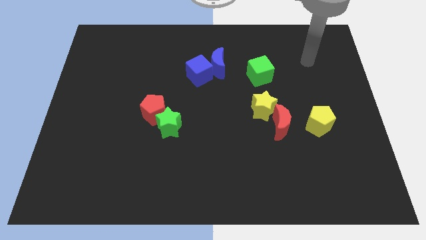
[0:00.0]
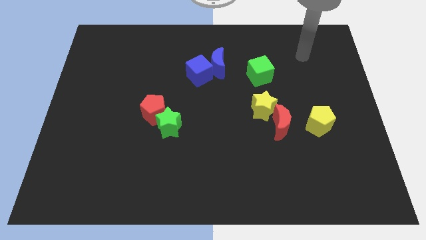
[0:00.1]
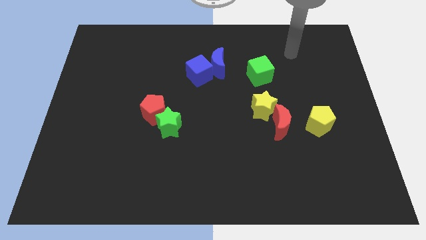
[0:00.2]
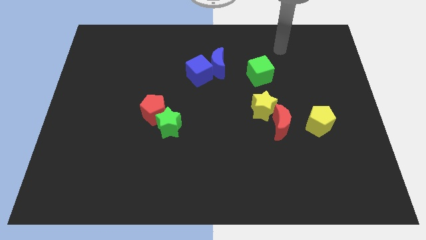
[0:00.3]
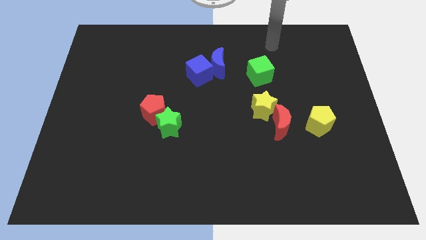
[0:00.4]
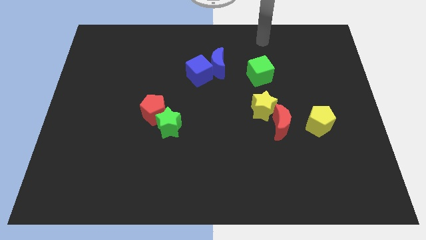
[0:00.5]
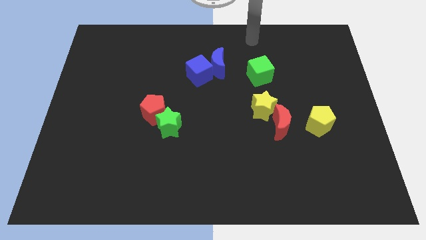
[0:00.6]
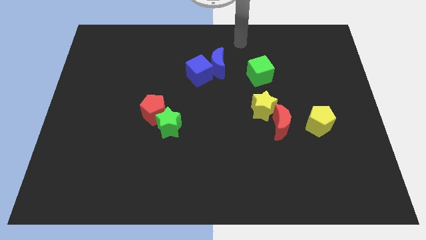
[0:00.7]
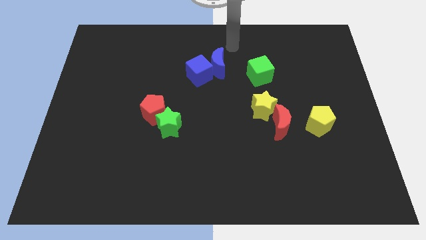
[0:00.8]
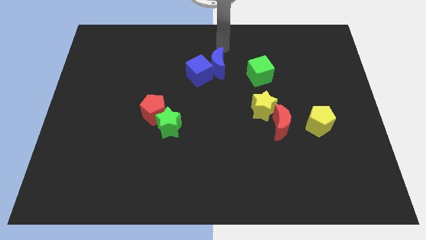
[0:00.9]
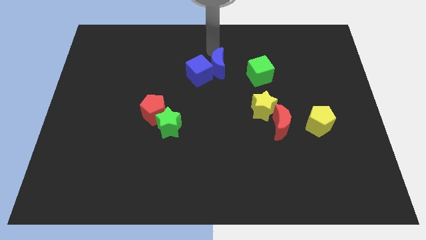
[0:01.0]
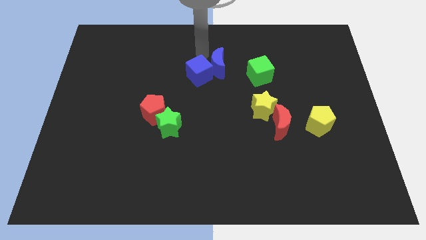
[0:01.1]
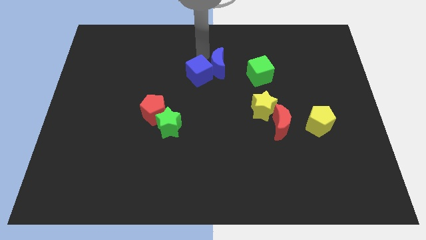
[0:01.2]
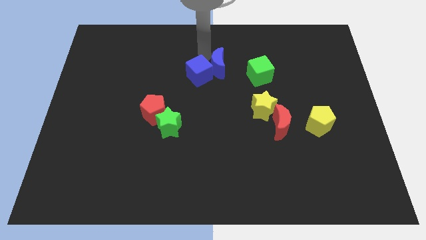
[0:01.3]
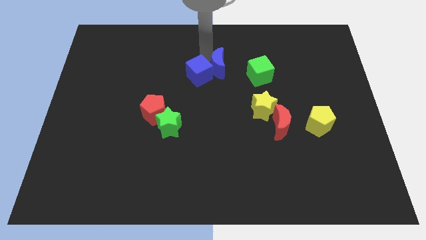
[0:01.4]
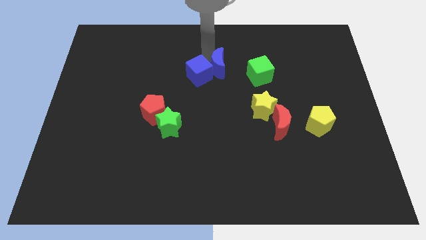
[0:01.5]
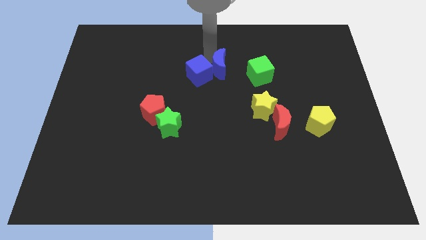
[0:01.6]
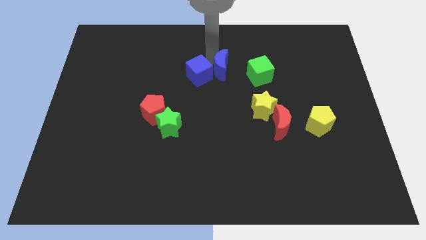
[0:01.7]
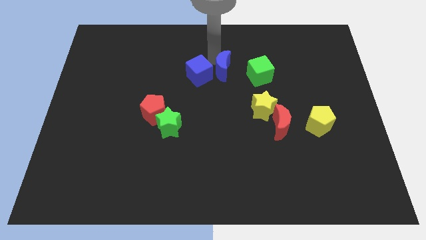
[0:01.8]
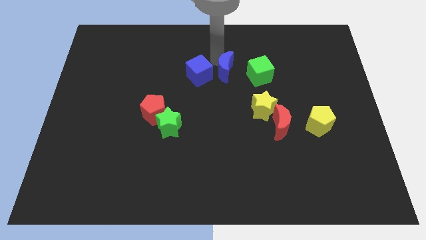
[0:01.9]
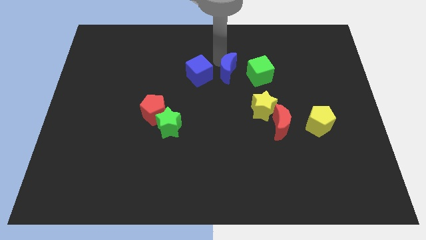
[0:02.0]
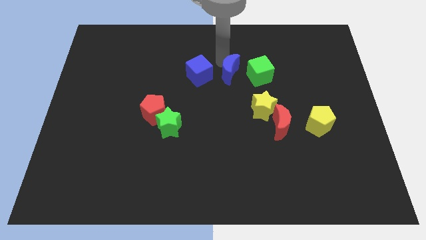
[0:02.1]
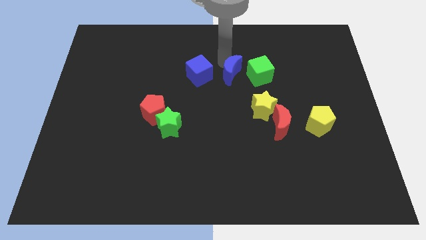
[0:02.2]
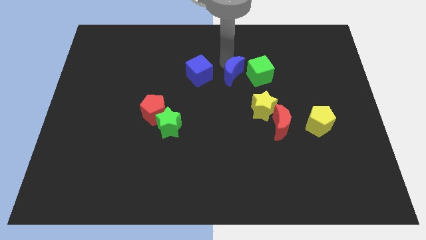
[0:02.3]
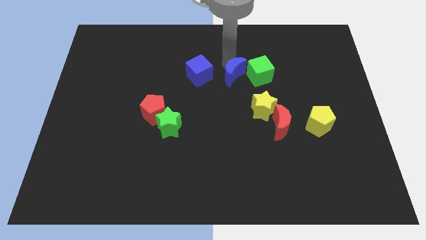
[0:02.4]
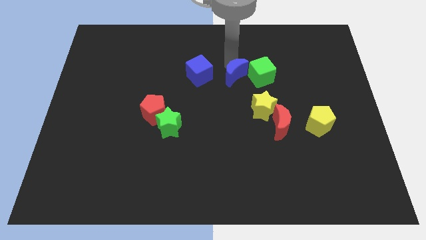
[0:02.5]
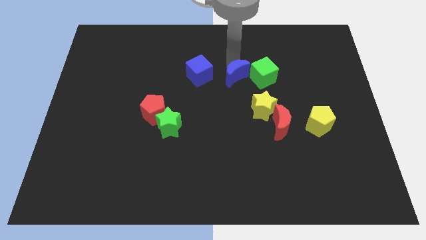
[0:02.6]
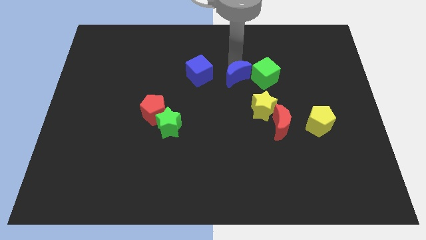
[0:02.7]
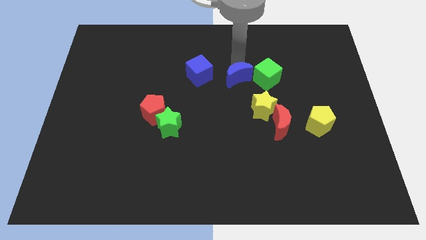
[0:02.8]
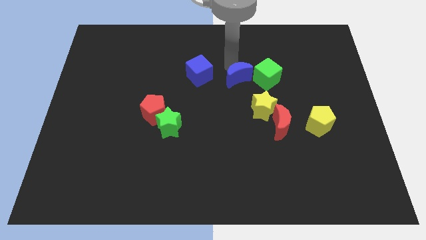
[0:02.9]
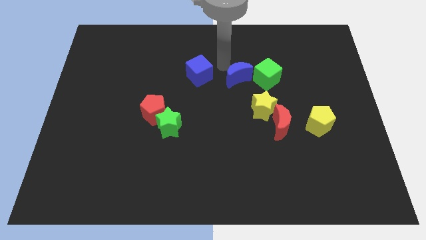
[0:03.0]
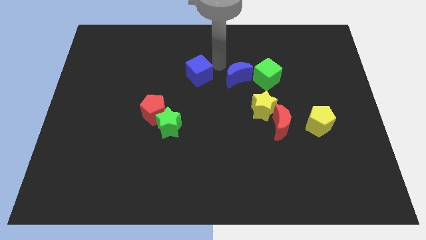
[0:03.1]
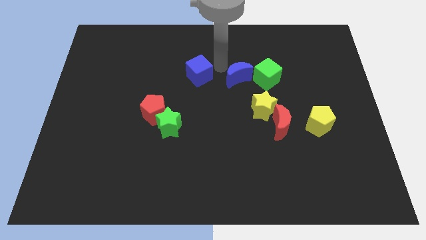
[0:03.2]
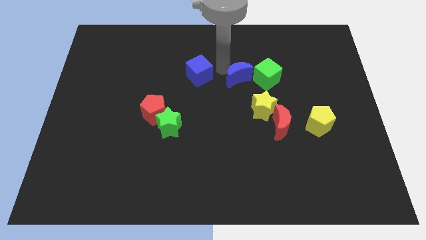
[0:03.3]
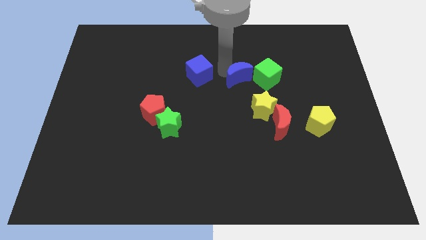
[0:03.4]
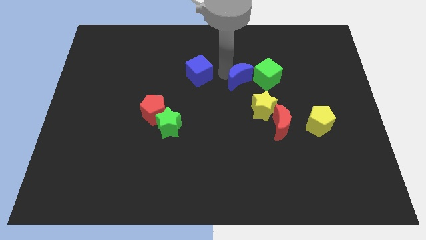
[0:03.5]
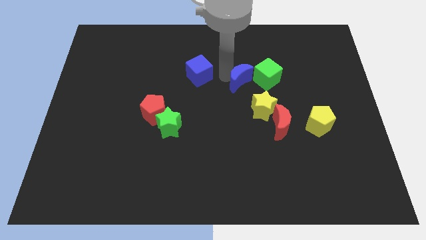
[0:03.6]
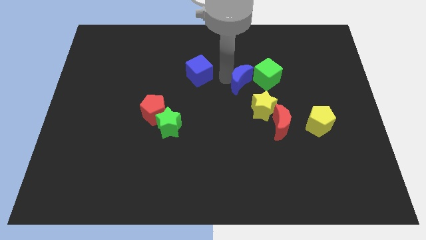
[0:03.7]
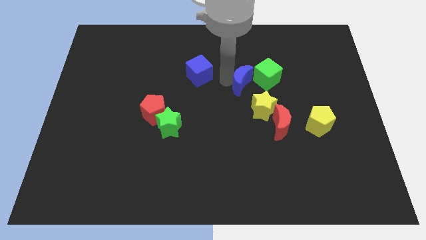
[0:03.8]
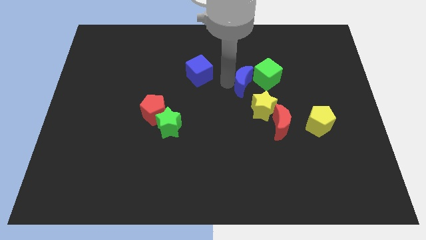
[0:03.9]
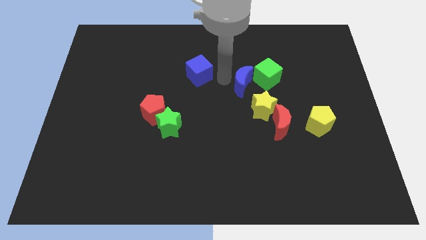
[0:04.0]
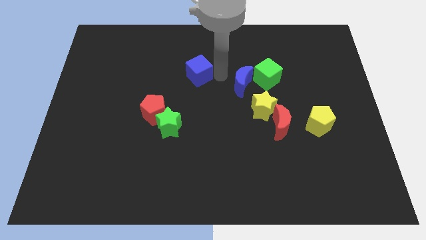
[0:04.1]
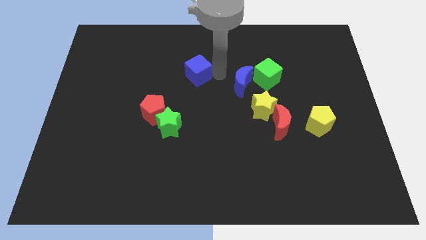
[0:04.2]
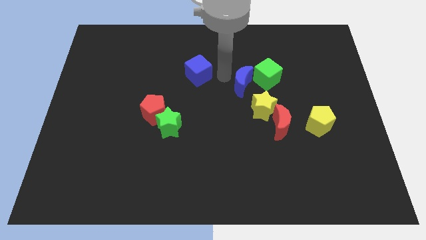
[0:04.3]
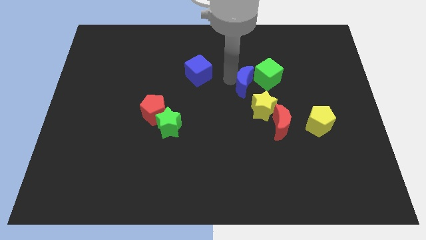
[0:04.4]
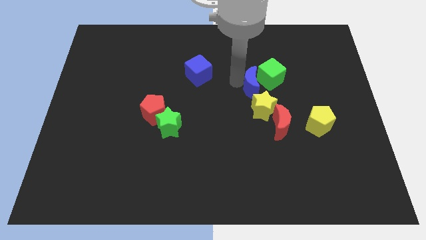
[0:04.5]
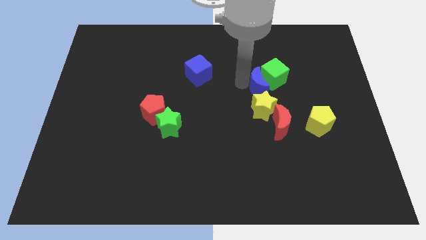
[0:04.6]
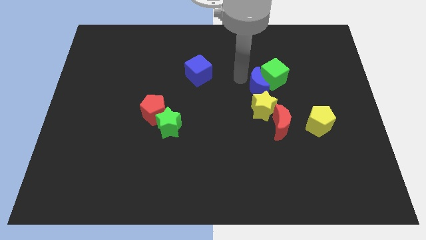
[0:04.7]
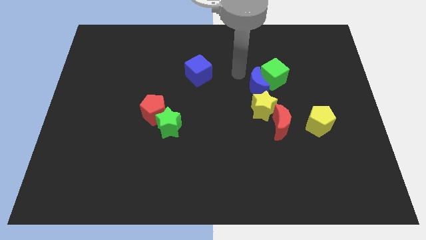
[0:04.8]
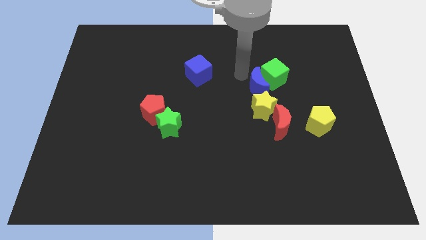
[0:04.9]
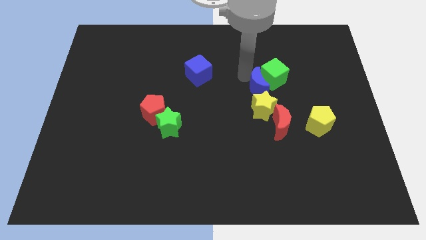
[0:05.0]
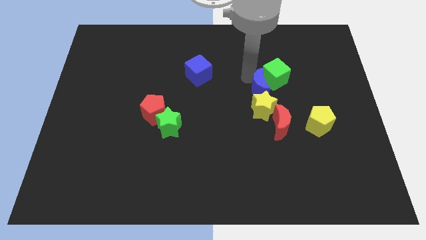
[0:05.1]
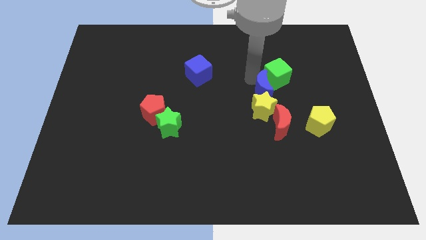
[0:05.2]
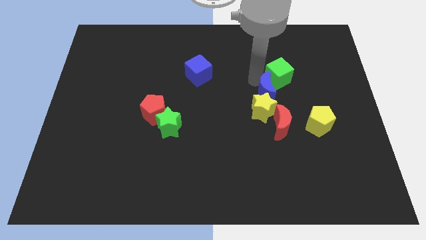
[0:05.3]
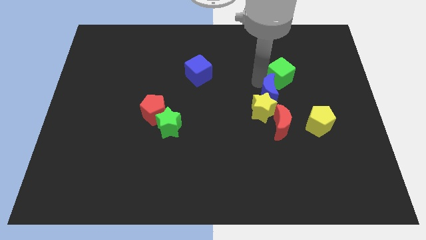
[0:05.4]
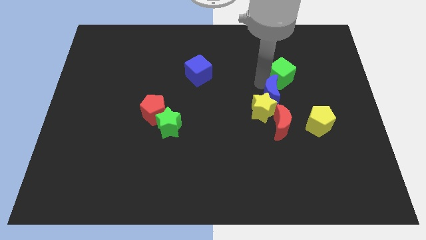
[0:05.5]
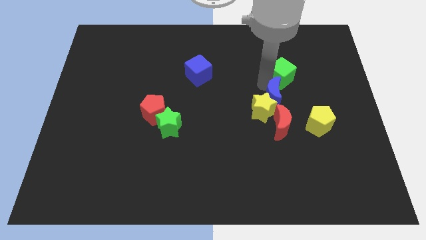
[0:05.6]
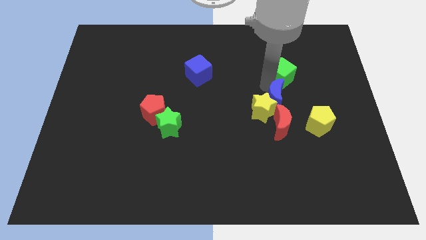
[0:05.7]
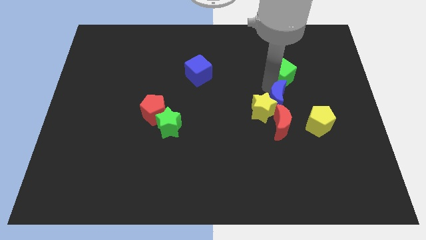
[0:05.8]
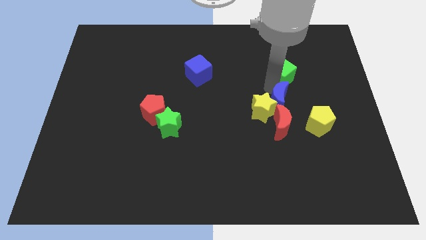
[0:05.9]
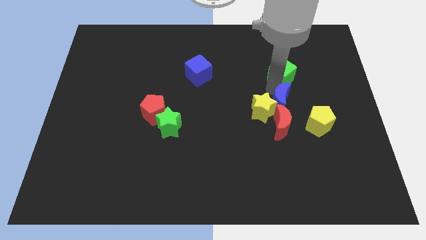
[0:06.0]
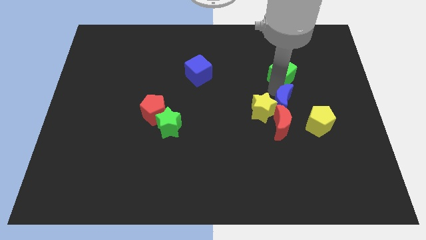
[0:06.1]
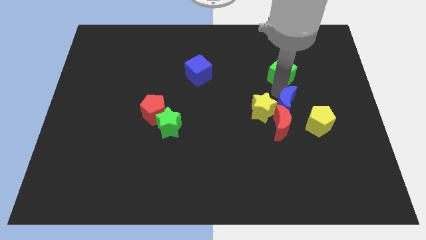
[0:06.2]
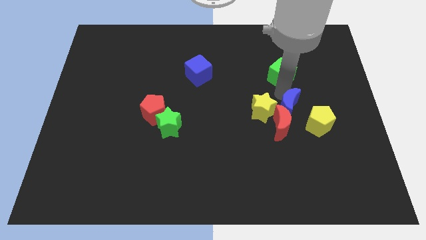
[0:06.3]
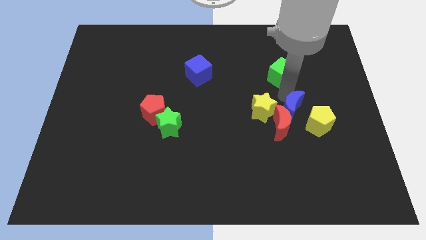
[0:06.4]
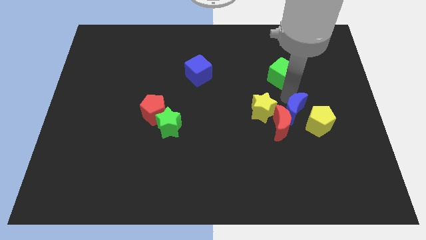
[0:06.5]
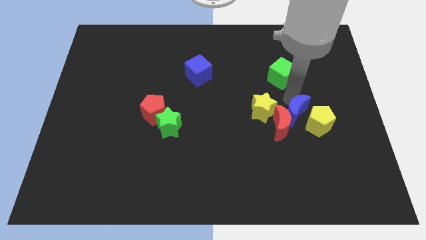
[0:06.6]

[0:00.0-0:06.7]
move the blue moon to the yellow pentagon

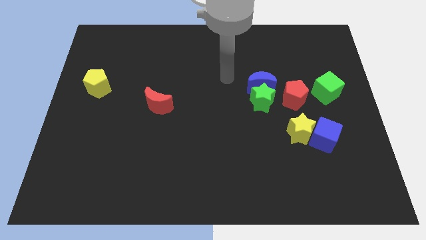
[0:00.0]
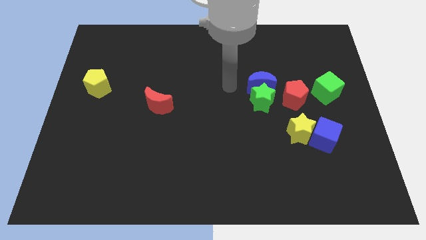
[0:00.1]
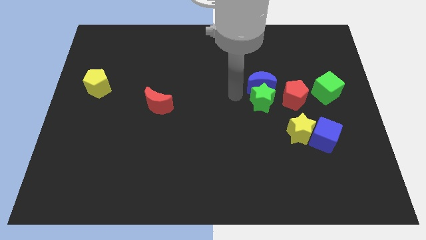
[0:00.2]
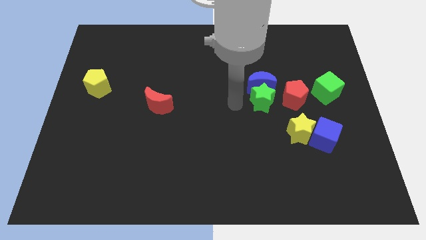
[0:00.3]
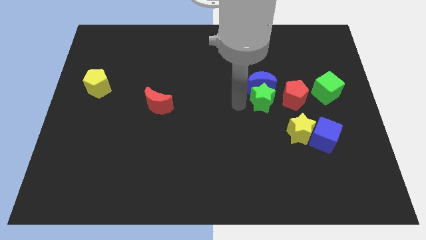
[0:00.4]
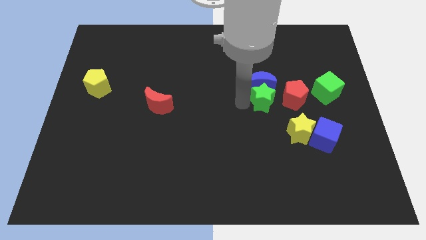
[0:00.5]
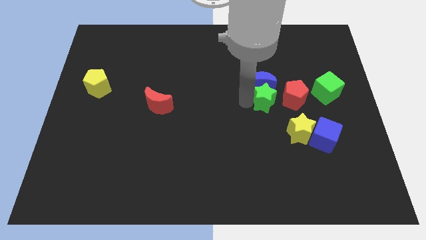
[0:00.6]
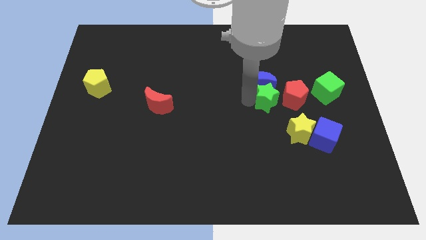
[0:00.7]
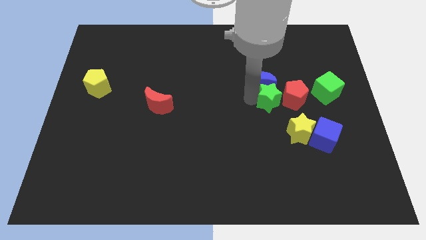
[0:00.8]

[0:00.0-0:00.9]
push the green star next to the red pentagon
